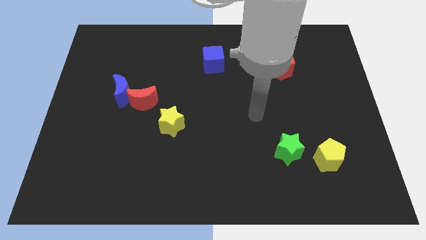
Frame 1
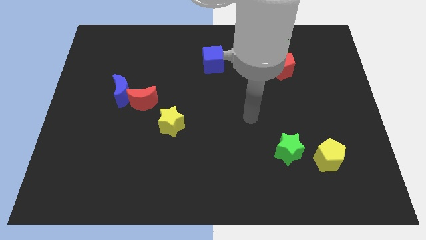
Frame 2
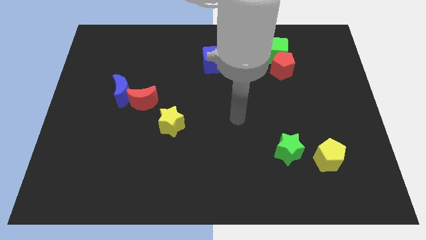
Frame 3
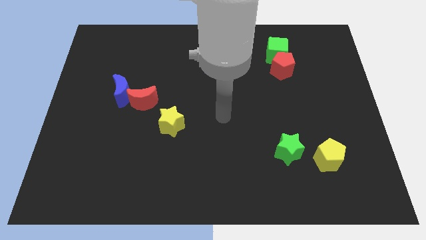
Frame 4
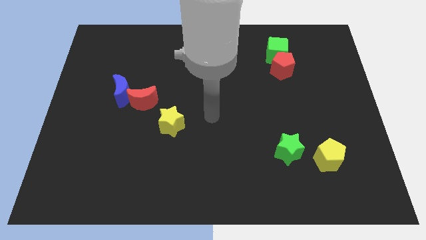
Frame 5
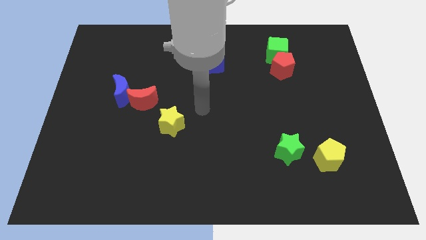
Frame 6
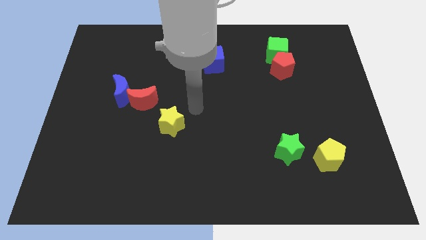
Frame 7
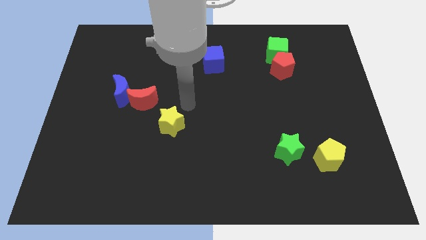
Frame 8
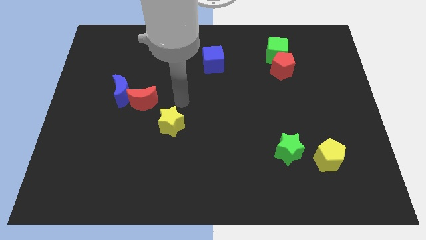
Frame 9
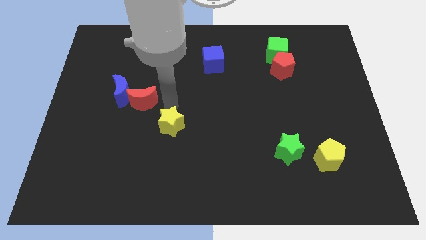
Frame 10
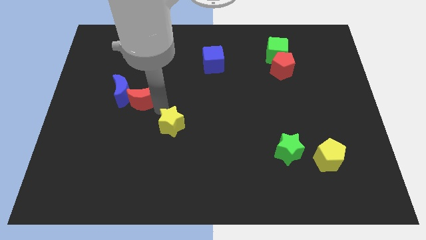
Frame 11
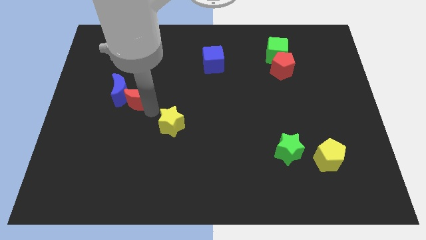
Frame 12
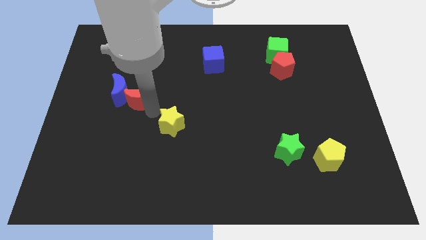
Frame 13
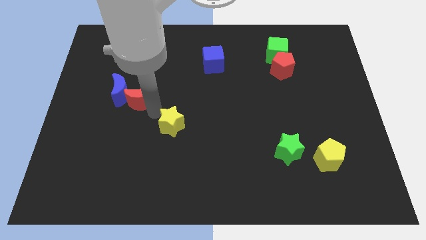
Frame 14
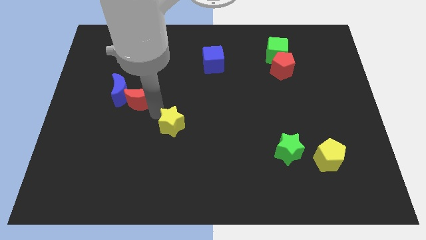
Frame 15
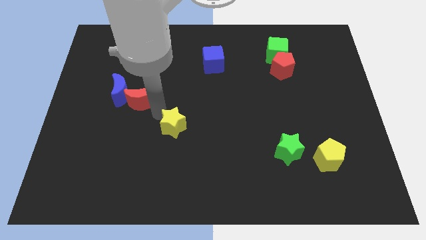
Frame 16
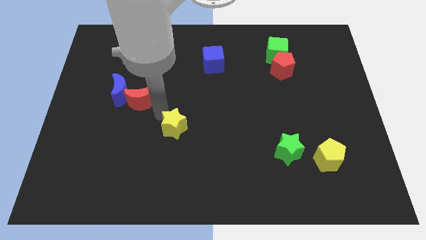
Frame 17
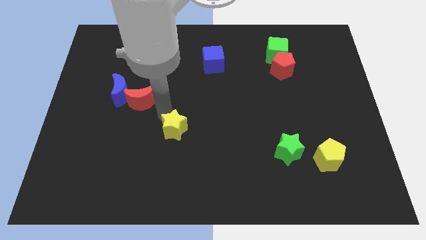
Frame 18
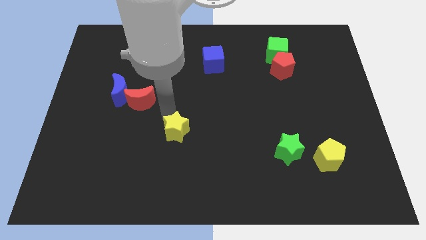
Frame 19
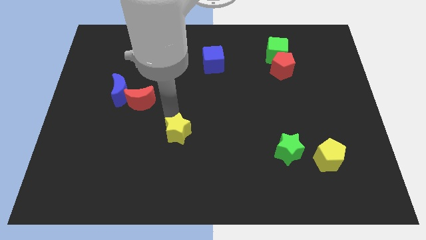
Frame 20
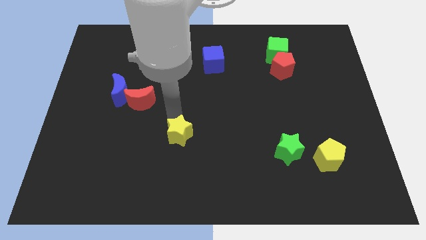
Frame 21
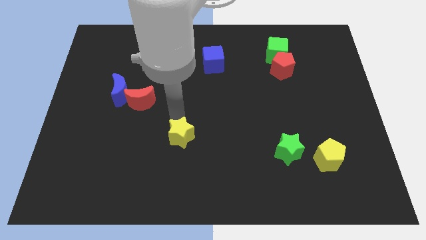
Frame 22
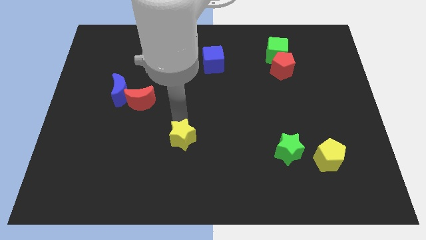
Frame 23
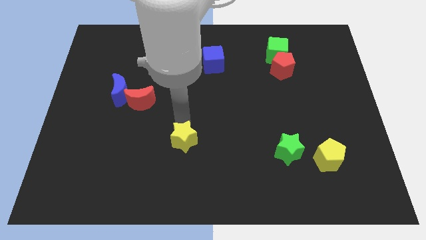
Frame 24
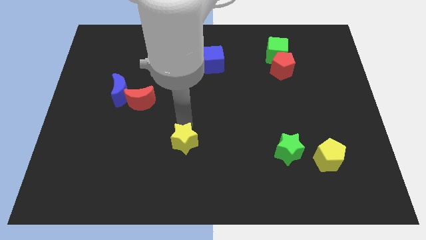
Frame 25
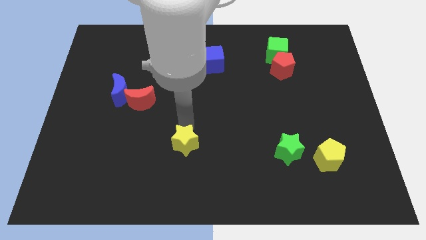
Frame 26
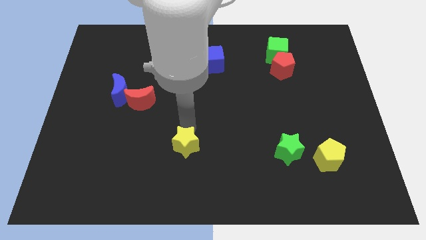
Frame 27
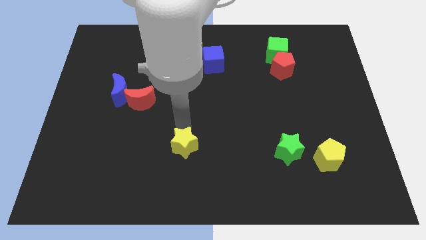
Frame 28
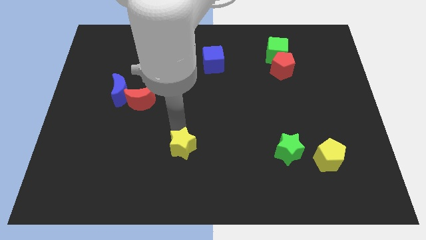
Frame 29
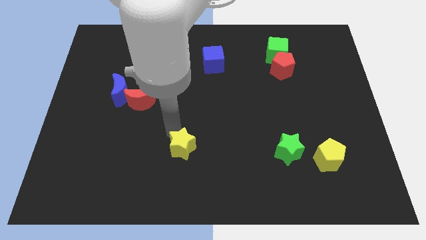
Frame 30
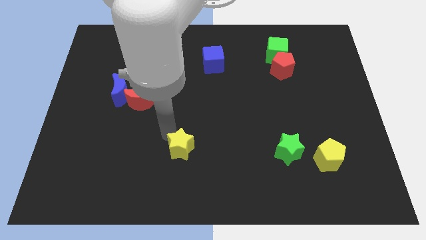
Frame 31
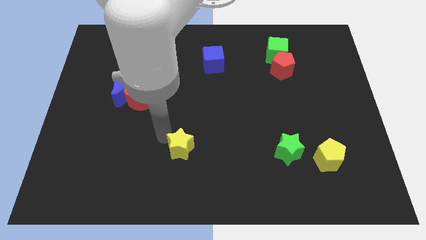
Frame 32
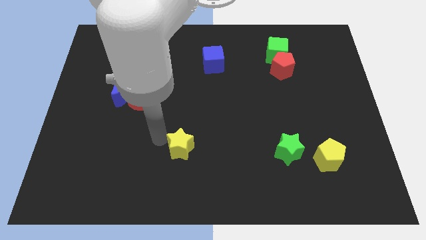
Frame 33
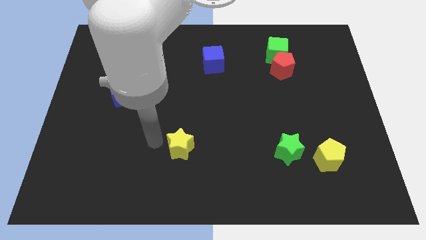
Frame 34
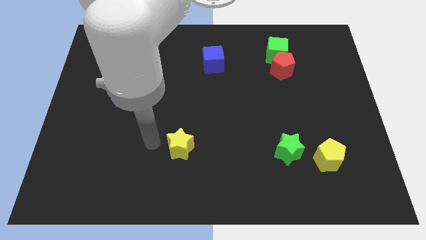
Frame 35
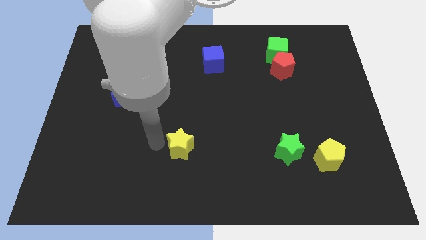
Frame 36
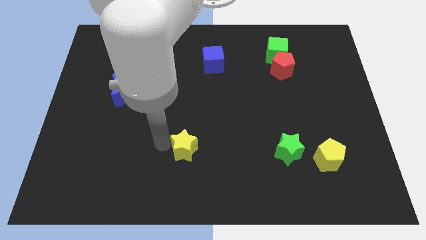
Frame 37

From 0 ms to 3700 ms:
slightly slide the yellow star diagonally down and to the right

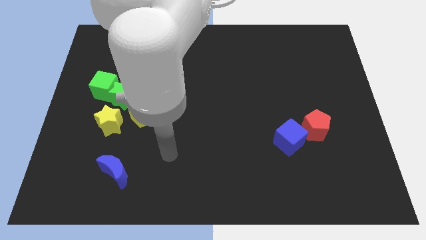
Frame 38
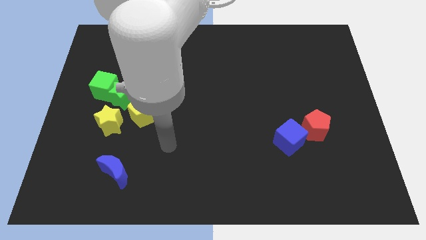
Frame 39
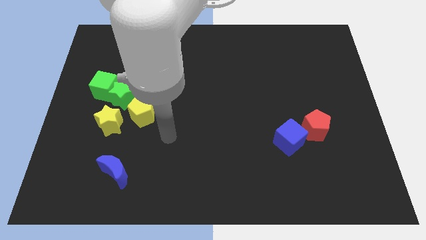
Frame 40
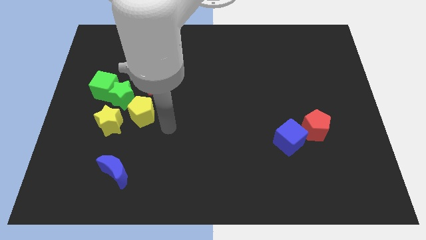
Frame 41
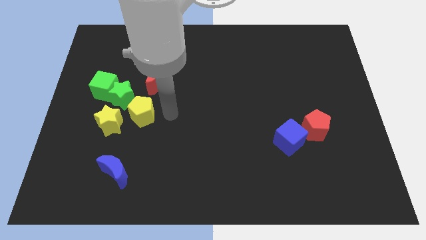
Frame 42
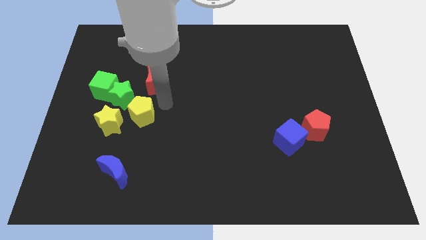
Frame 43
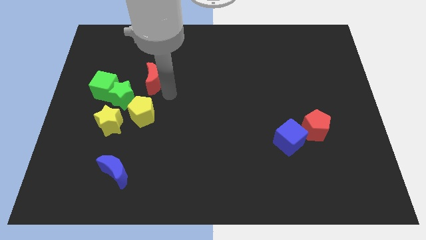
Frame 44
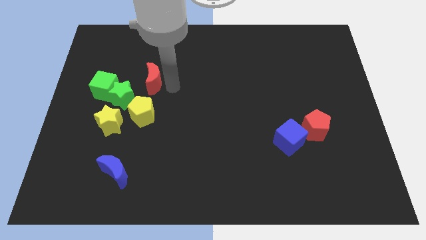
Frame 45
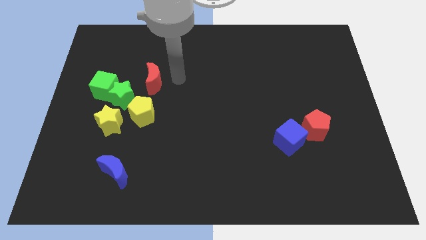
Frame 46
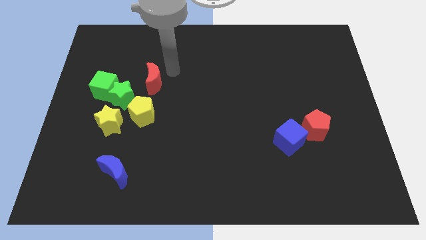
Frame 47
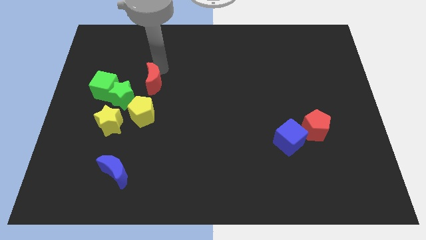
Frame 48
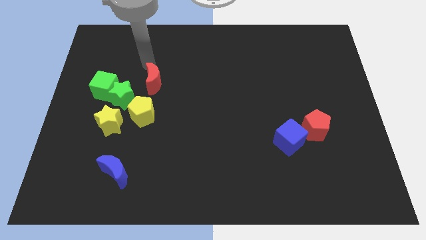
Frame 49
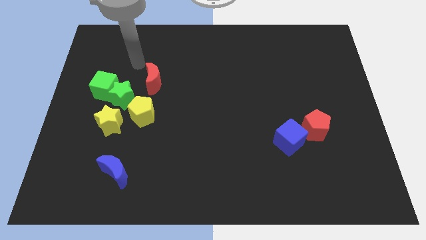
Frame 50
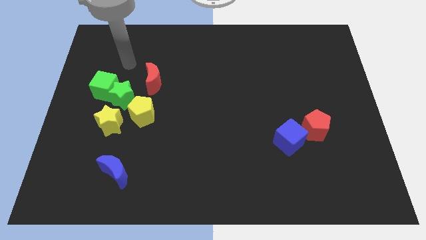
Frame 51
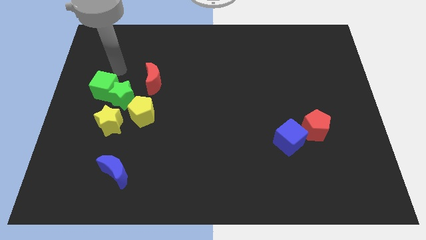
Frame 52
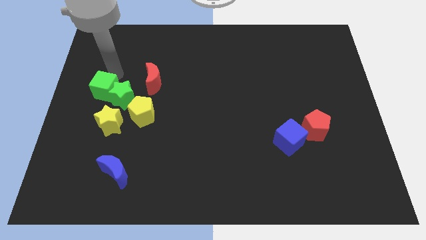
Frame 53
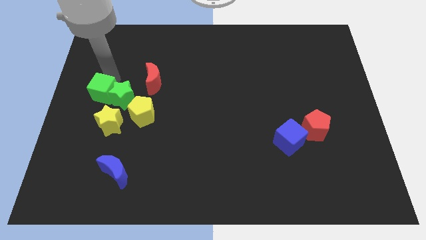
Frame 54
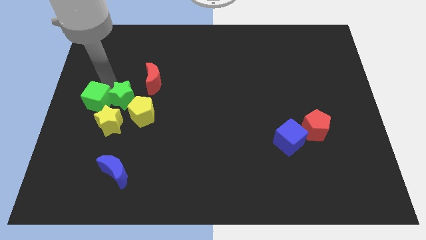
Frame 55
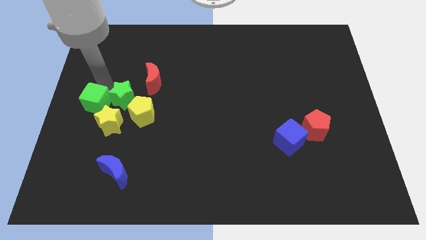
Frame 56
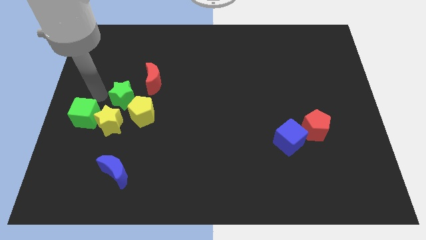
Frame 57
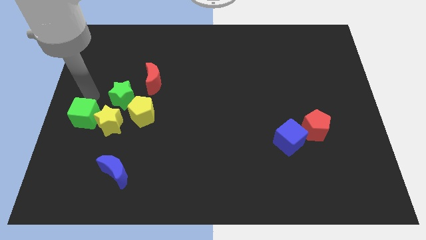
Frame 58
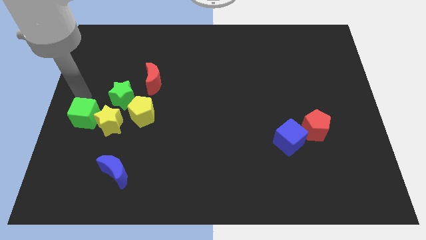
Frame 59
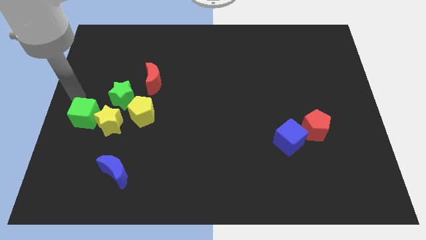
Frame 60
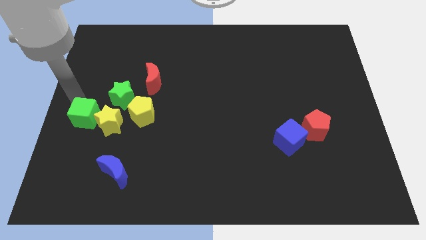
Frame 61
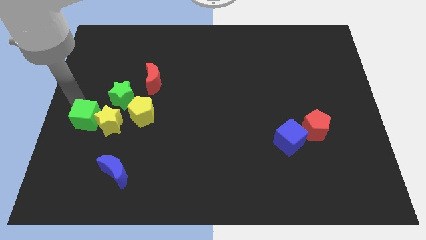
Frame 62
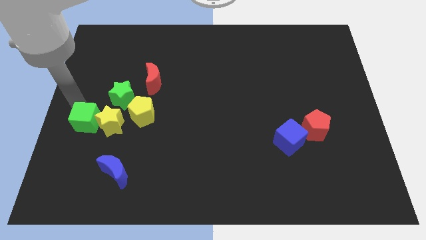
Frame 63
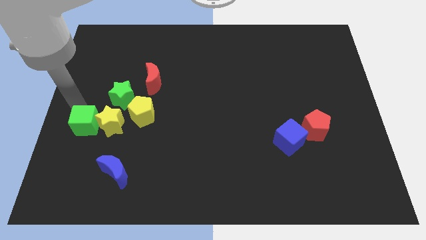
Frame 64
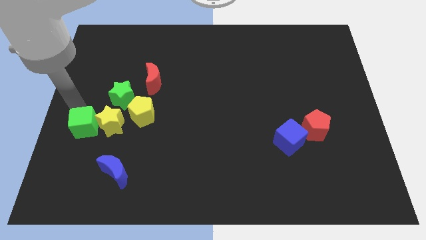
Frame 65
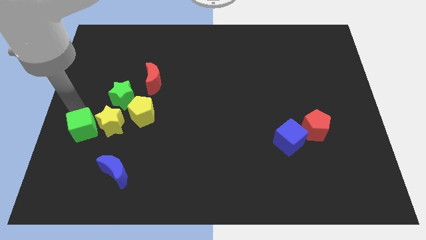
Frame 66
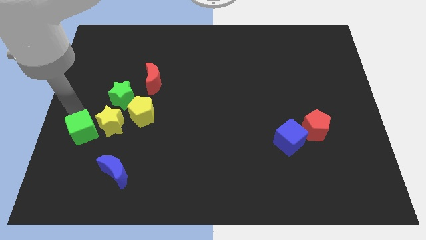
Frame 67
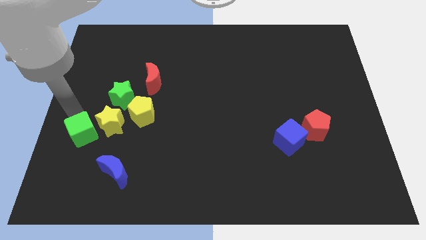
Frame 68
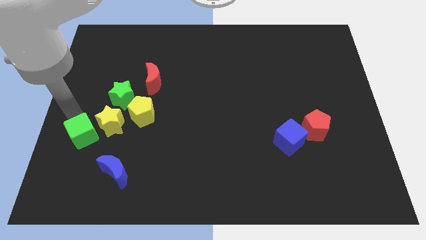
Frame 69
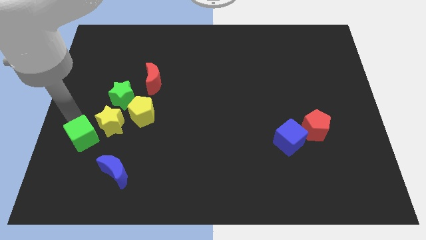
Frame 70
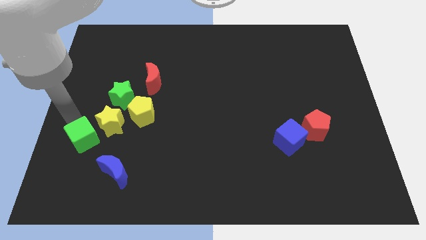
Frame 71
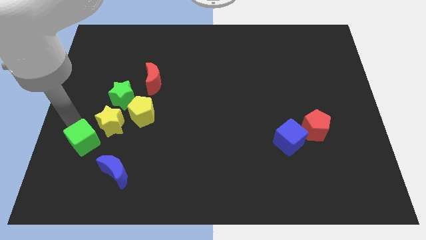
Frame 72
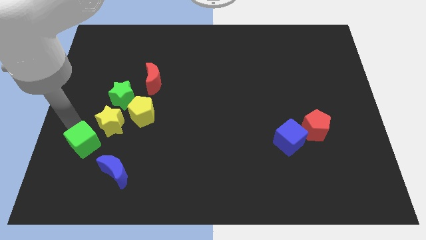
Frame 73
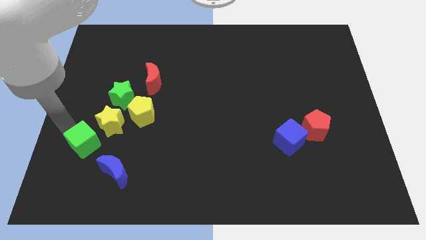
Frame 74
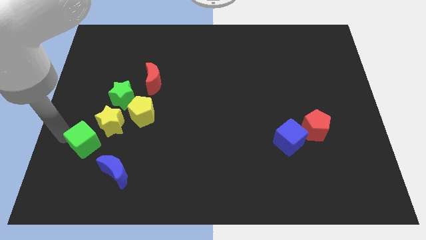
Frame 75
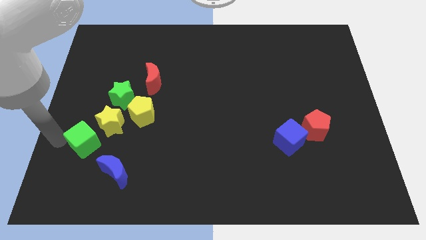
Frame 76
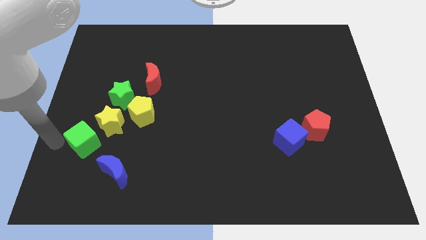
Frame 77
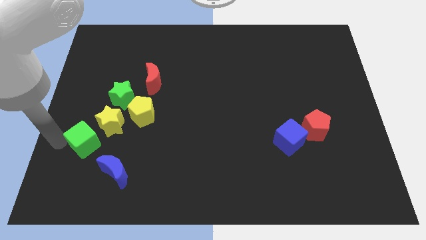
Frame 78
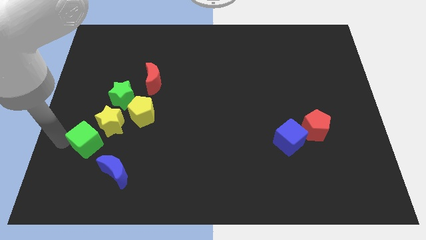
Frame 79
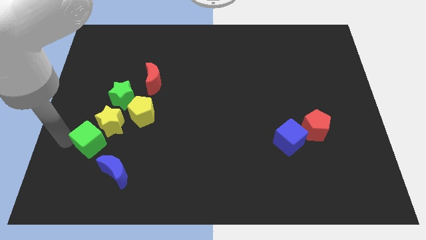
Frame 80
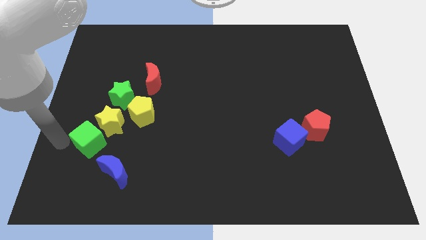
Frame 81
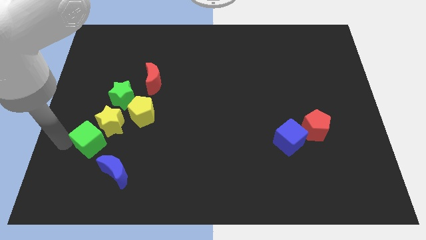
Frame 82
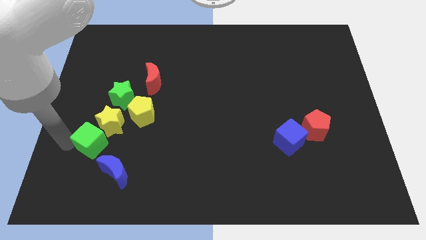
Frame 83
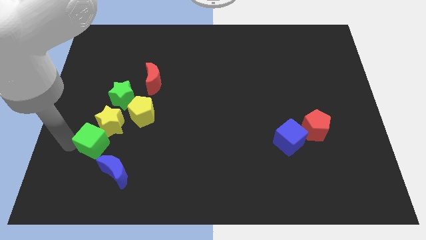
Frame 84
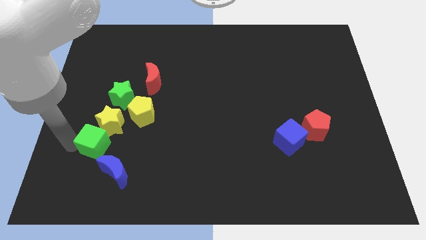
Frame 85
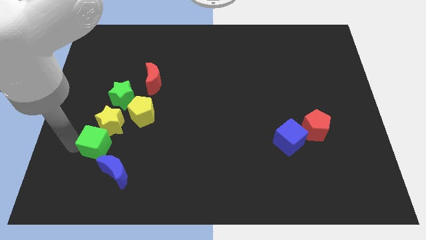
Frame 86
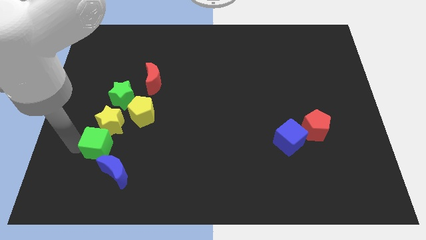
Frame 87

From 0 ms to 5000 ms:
push the green cube down and right diagonally slightly
